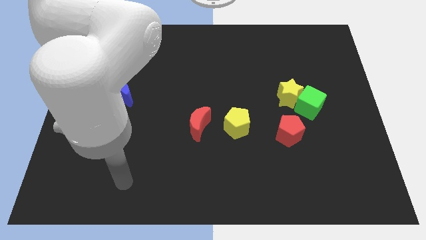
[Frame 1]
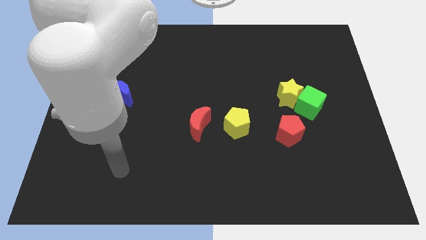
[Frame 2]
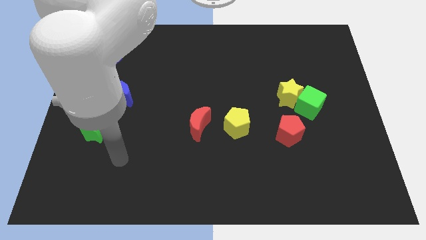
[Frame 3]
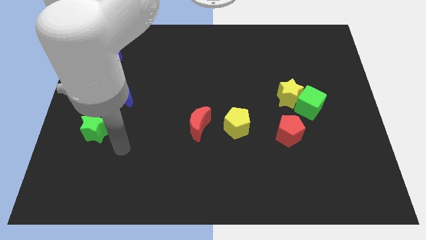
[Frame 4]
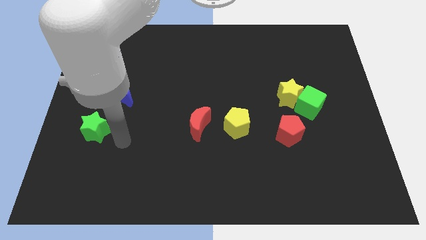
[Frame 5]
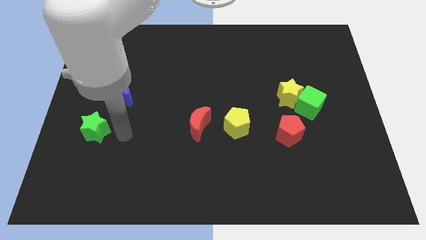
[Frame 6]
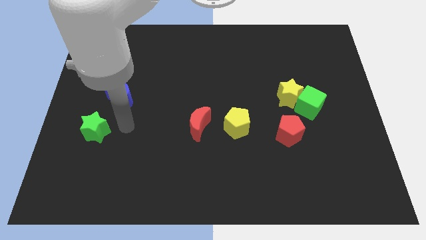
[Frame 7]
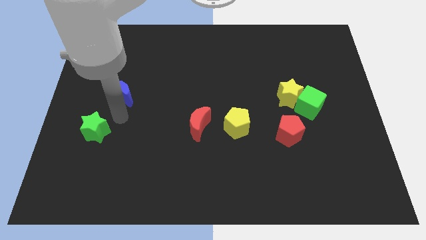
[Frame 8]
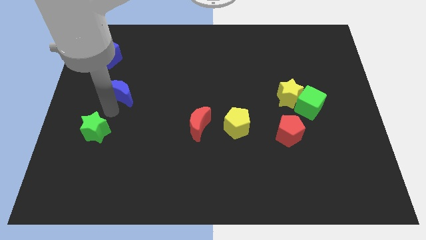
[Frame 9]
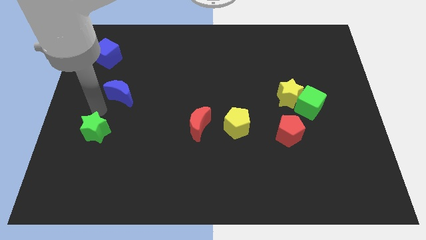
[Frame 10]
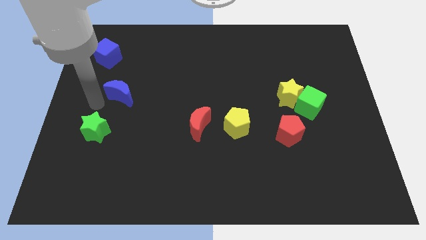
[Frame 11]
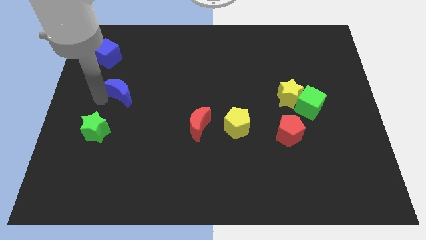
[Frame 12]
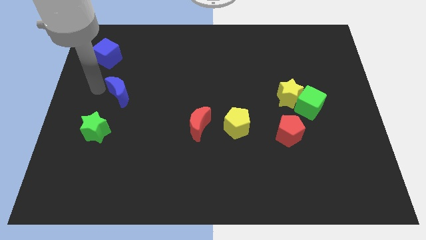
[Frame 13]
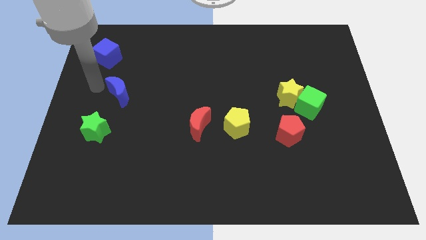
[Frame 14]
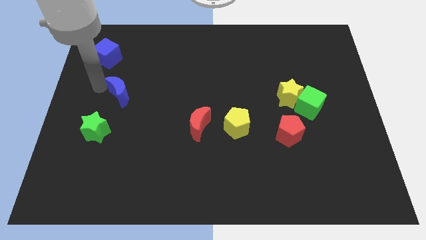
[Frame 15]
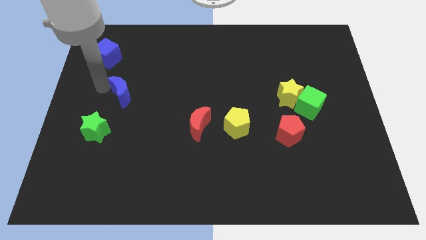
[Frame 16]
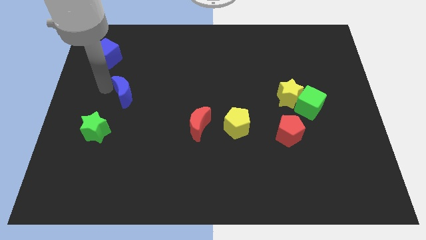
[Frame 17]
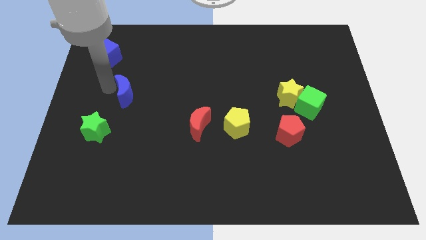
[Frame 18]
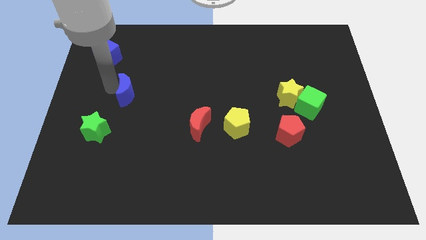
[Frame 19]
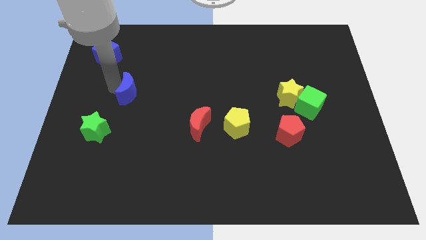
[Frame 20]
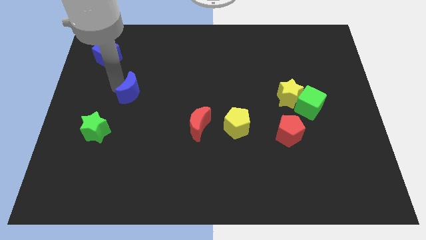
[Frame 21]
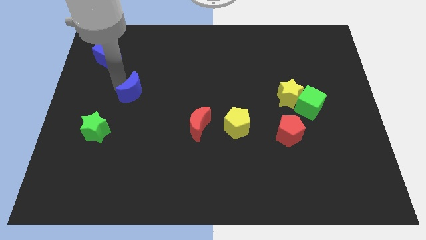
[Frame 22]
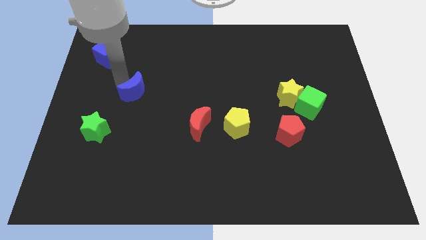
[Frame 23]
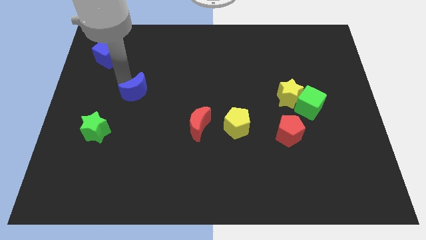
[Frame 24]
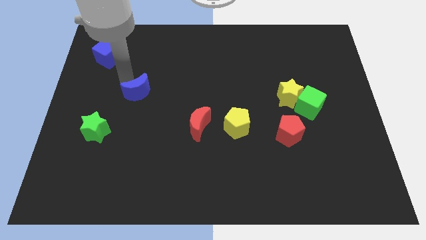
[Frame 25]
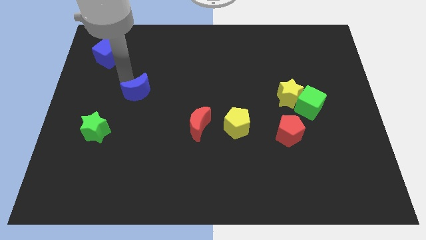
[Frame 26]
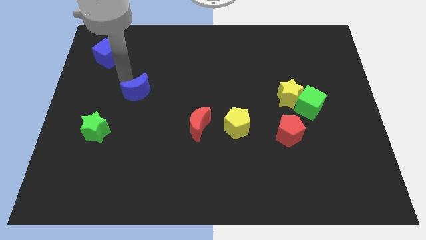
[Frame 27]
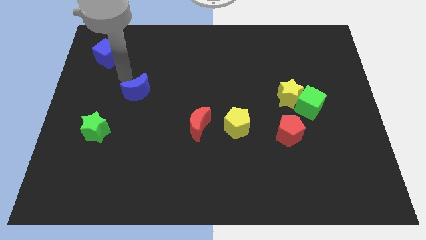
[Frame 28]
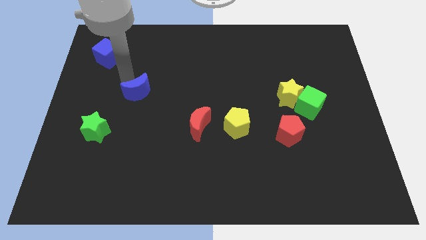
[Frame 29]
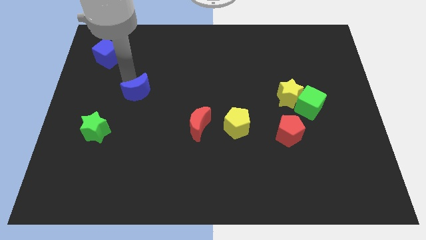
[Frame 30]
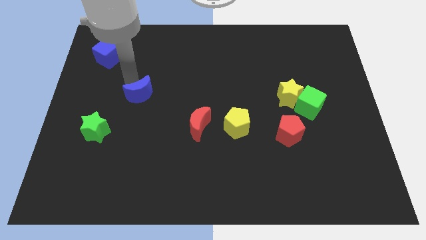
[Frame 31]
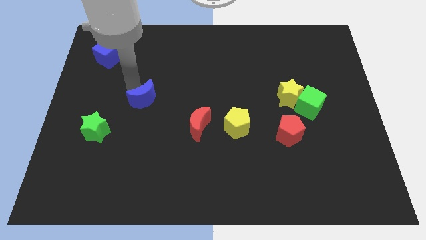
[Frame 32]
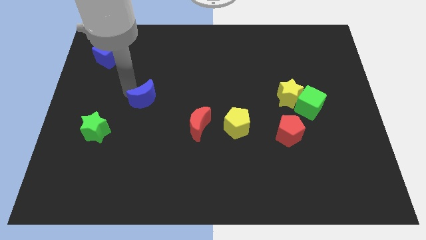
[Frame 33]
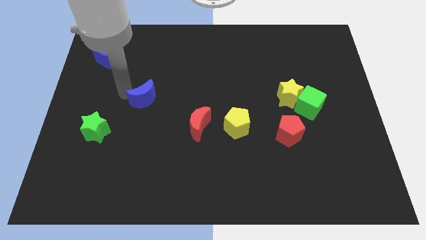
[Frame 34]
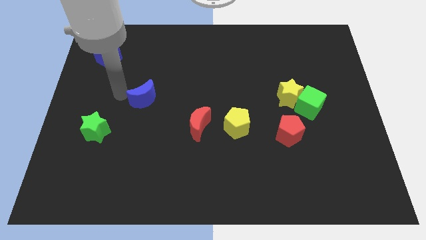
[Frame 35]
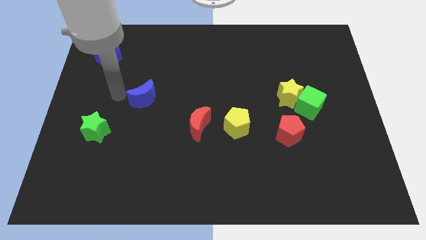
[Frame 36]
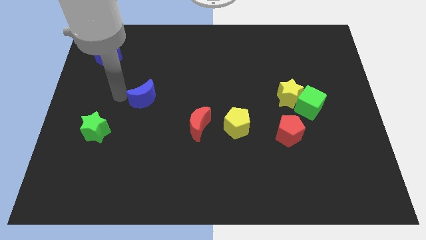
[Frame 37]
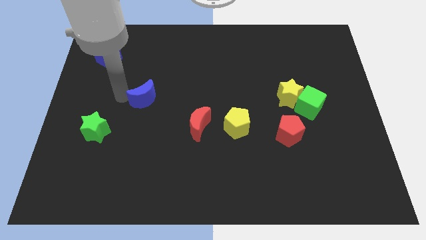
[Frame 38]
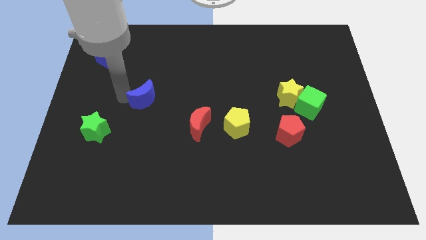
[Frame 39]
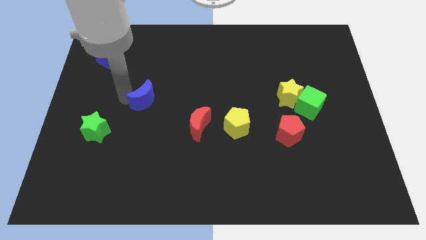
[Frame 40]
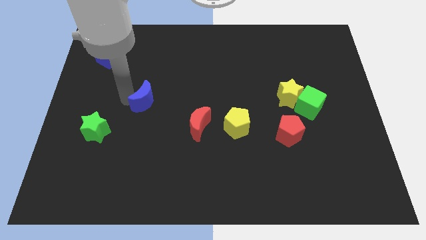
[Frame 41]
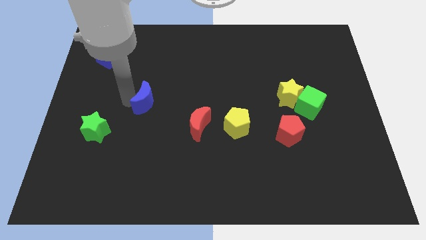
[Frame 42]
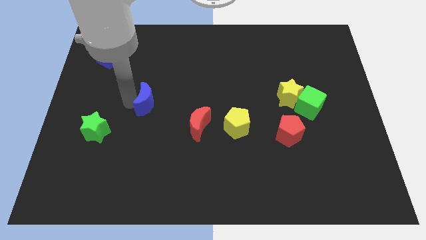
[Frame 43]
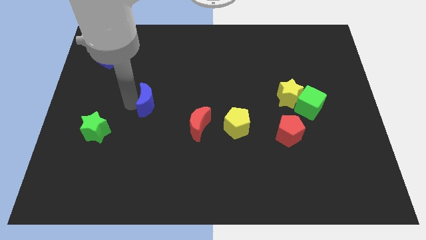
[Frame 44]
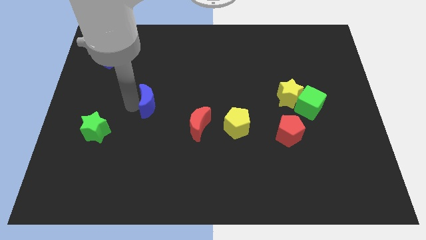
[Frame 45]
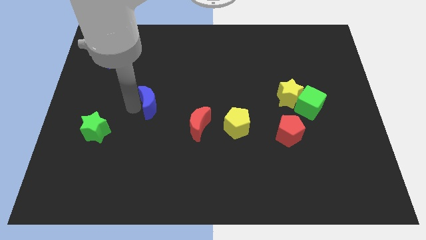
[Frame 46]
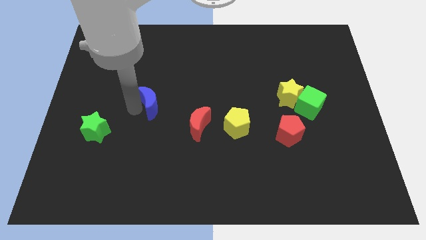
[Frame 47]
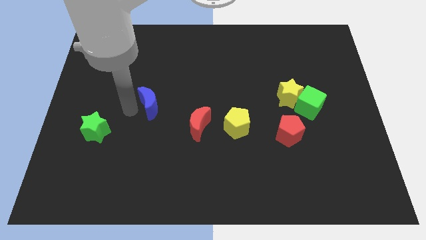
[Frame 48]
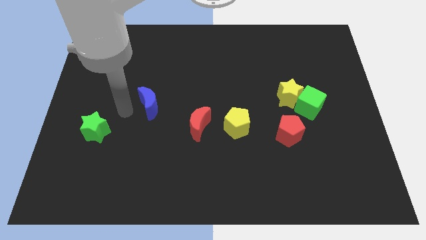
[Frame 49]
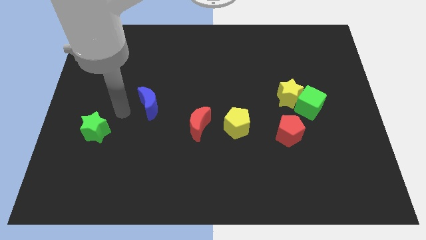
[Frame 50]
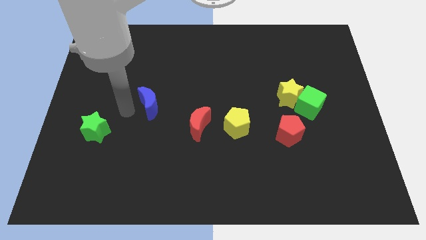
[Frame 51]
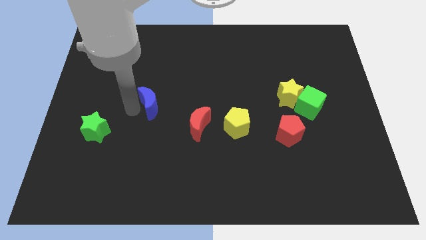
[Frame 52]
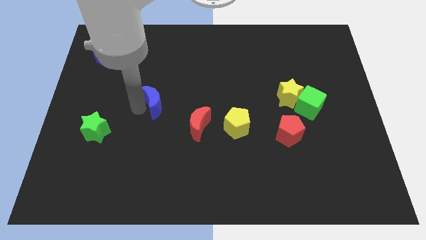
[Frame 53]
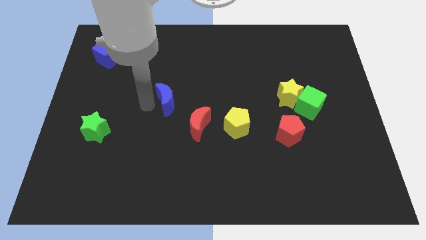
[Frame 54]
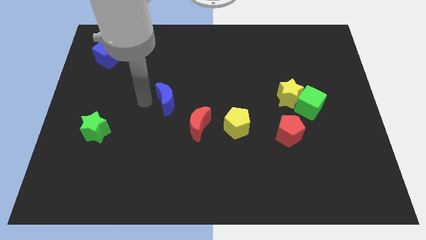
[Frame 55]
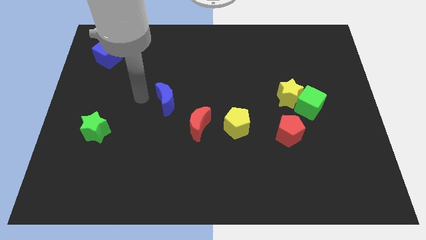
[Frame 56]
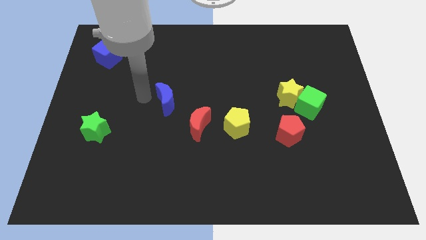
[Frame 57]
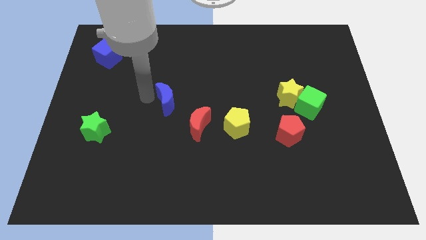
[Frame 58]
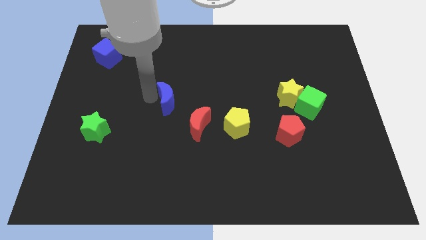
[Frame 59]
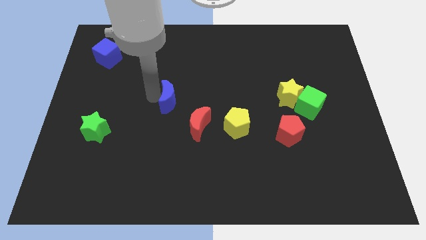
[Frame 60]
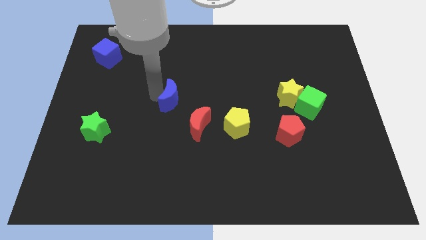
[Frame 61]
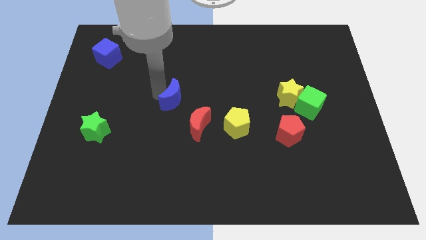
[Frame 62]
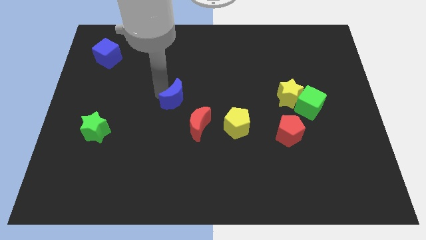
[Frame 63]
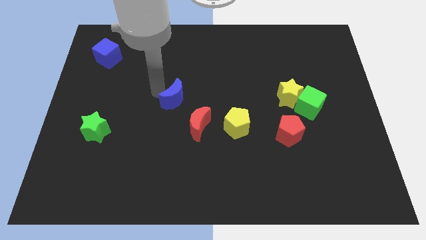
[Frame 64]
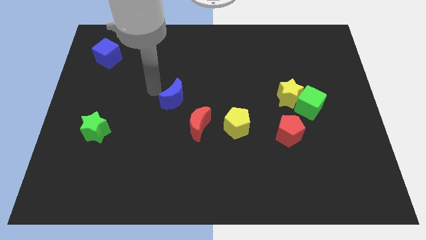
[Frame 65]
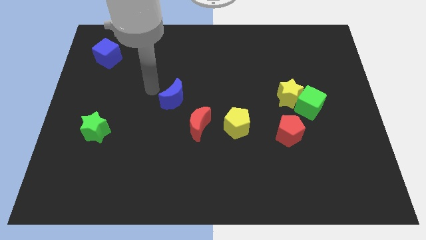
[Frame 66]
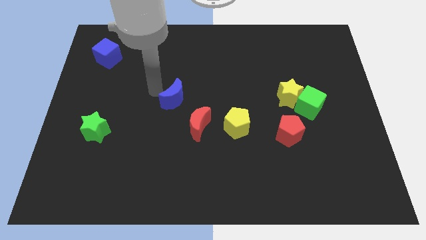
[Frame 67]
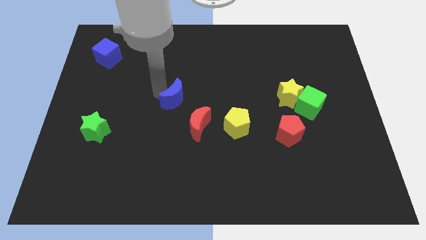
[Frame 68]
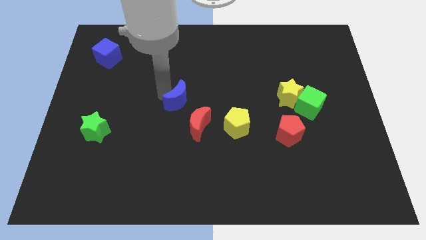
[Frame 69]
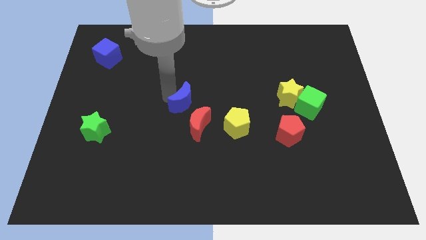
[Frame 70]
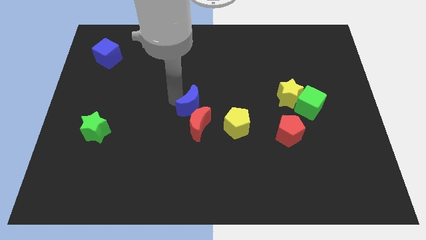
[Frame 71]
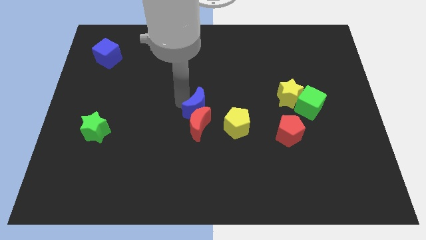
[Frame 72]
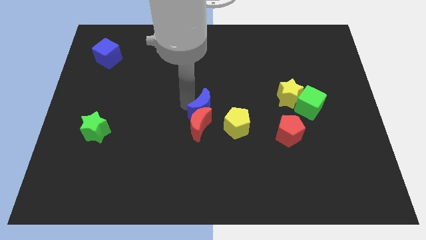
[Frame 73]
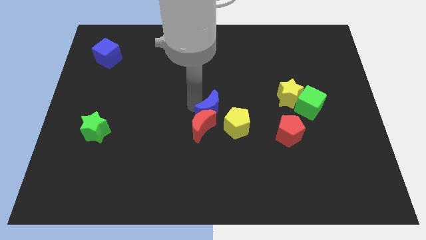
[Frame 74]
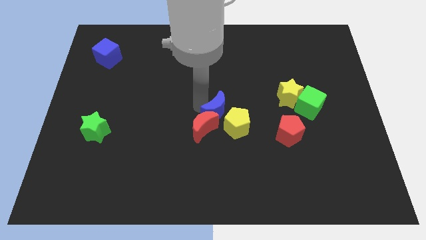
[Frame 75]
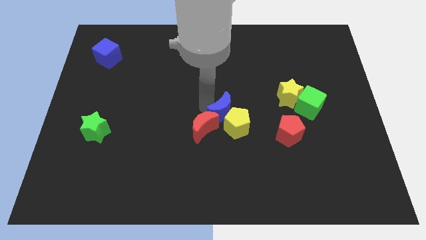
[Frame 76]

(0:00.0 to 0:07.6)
slide the blue moon towards the yellow pentagon

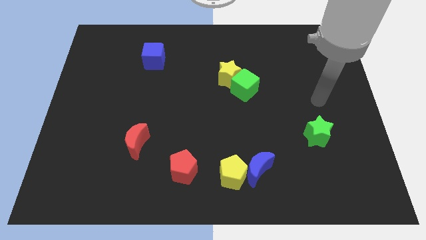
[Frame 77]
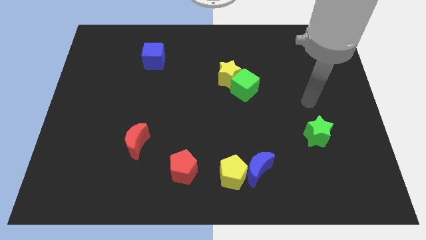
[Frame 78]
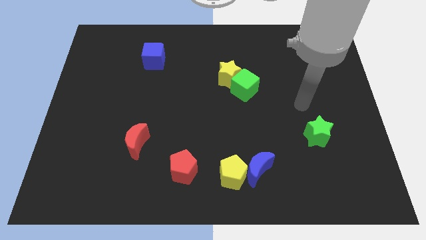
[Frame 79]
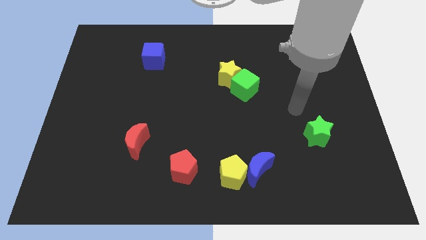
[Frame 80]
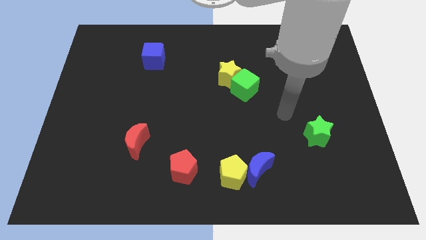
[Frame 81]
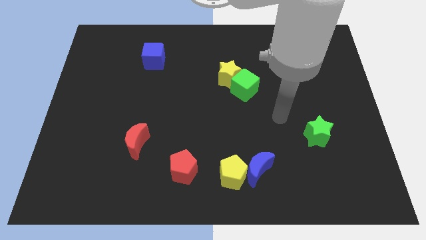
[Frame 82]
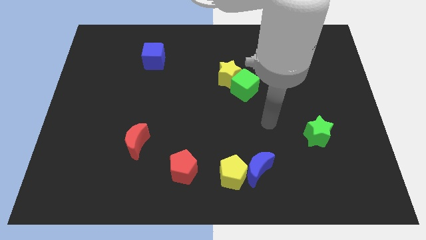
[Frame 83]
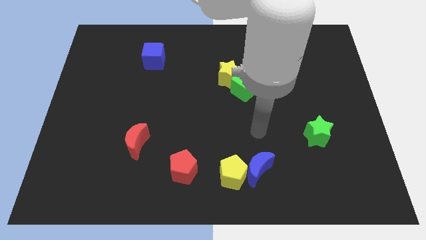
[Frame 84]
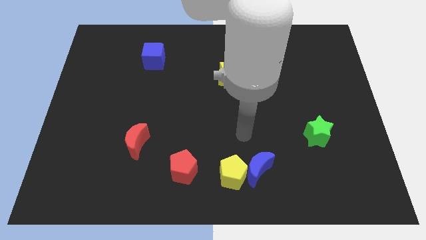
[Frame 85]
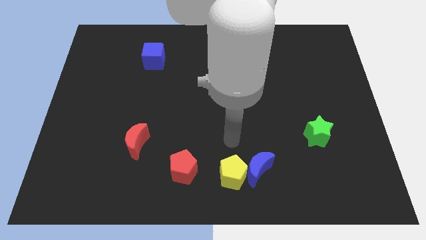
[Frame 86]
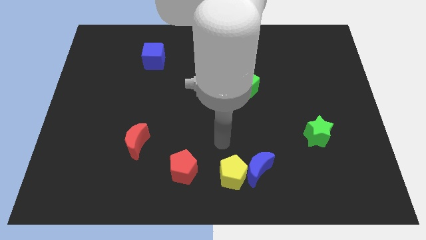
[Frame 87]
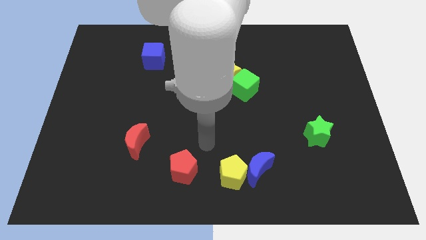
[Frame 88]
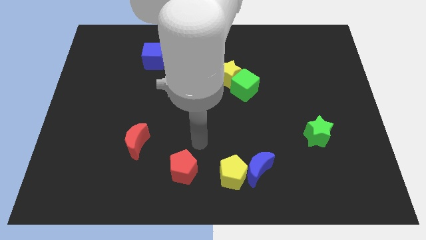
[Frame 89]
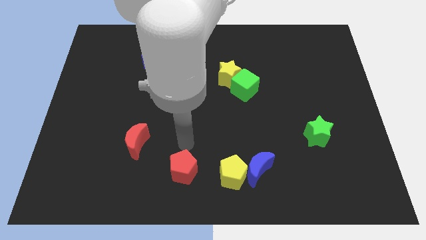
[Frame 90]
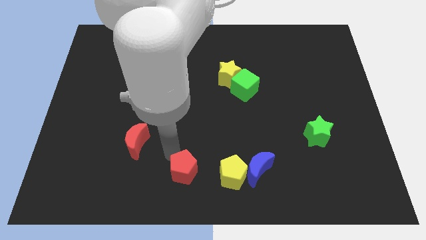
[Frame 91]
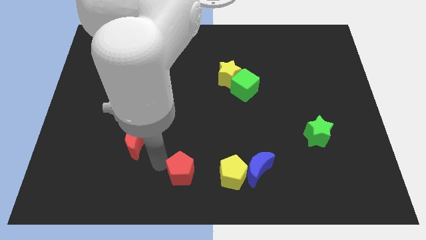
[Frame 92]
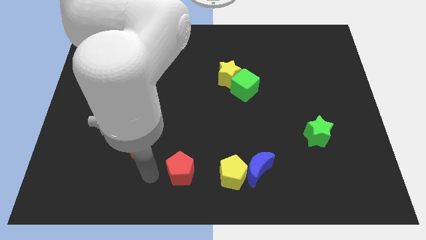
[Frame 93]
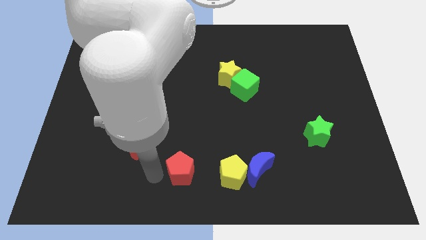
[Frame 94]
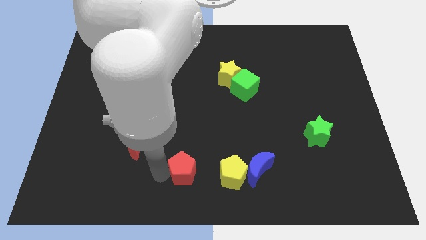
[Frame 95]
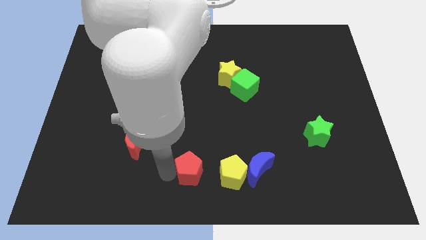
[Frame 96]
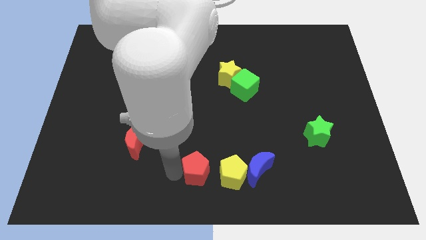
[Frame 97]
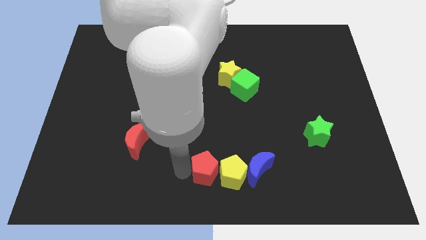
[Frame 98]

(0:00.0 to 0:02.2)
put the red pentagon close to the yellow pentagon
